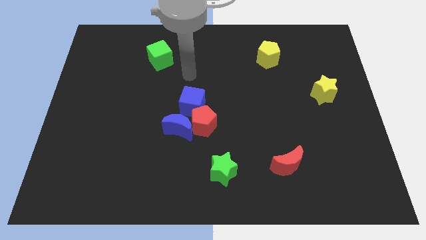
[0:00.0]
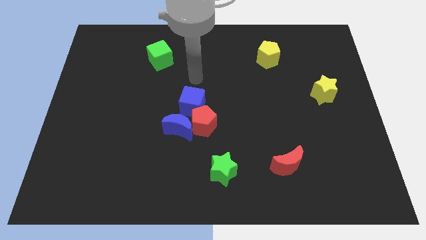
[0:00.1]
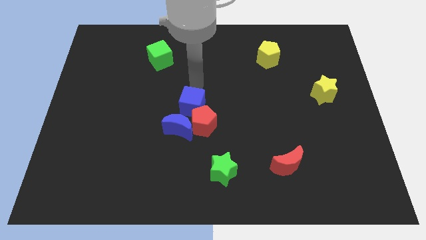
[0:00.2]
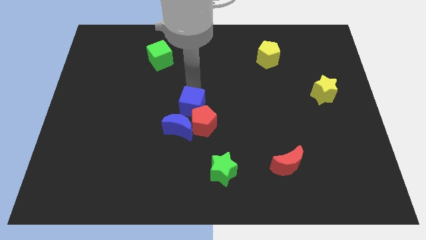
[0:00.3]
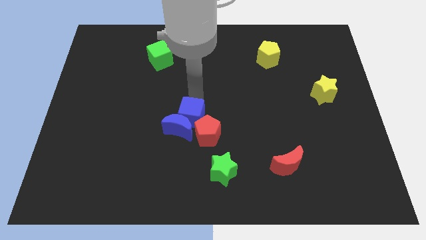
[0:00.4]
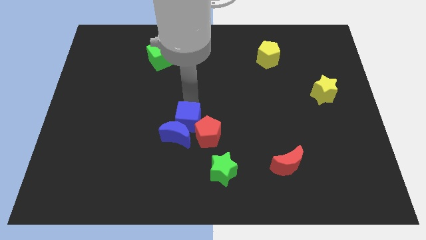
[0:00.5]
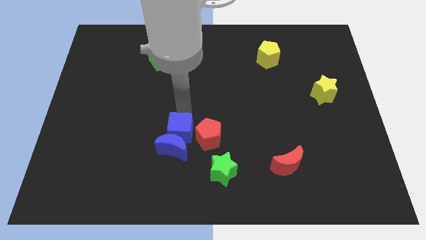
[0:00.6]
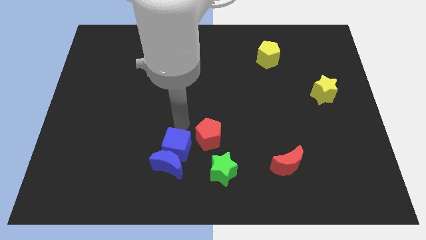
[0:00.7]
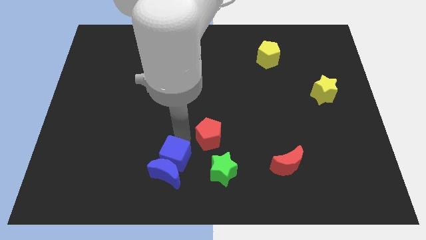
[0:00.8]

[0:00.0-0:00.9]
move the red pentagon away from the blue moon and blue cube

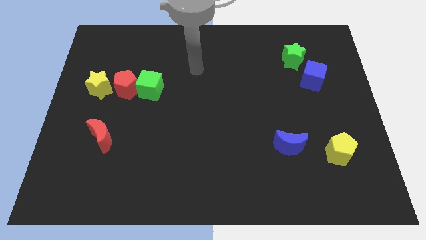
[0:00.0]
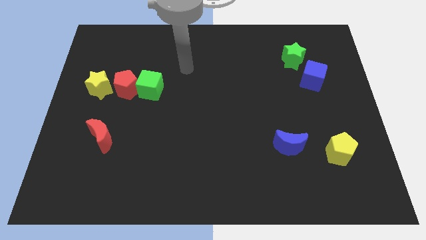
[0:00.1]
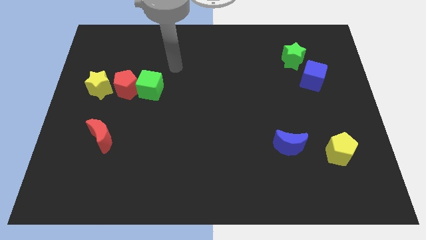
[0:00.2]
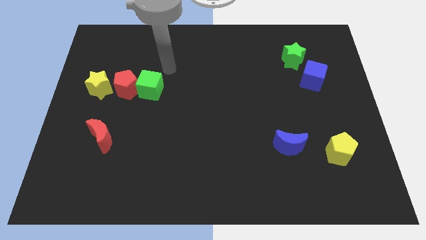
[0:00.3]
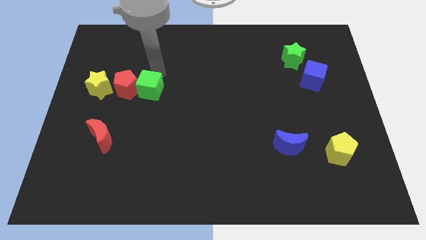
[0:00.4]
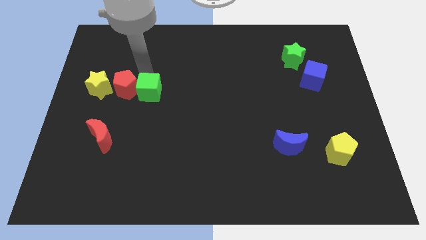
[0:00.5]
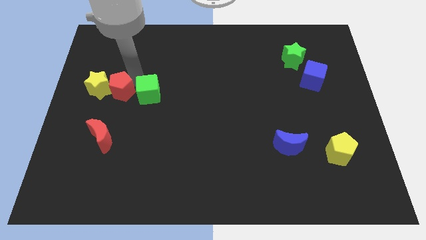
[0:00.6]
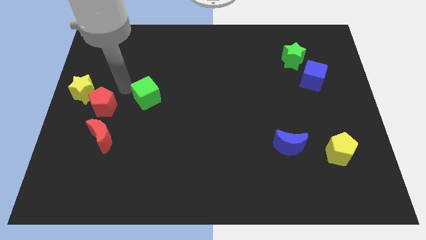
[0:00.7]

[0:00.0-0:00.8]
separate the green cube from the red pentagon

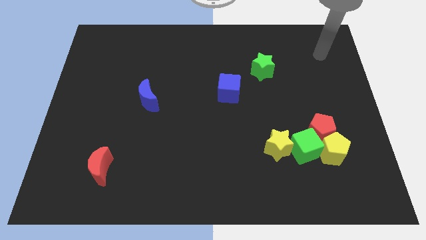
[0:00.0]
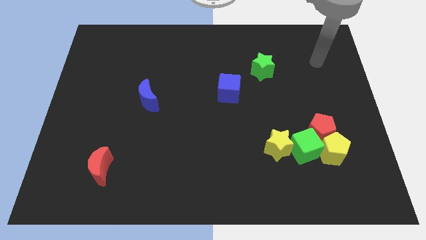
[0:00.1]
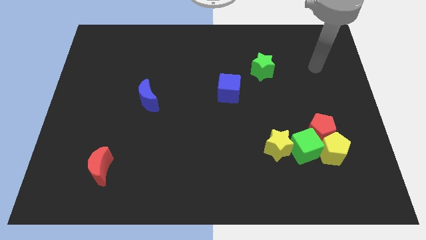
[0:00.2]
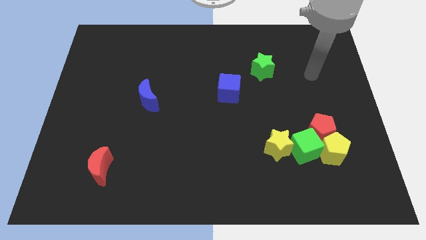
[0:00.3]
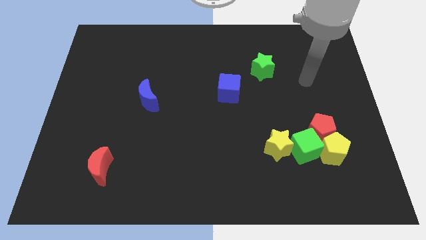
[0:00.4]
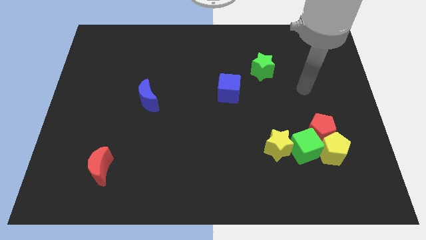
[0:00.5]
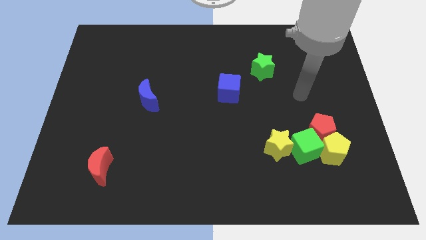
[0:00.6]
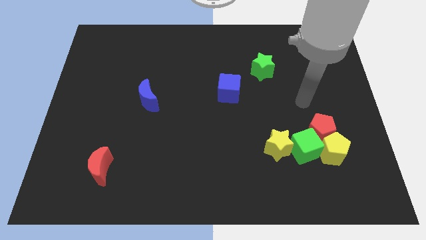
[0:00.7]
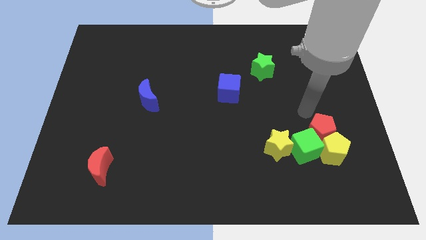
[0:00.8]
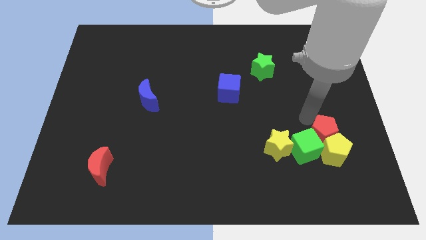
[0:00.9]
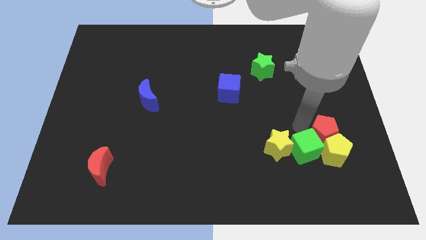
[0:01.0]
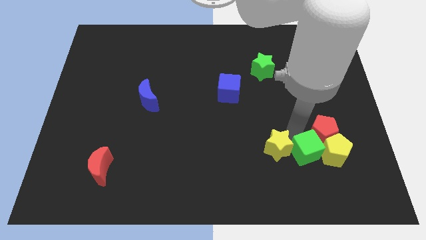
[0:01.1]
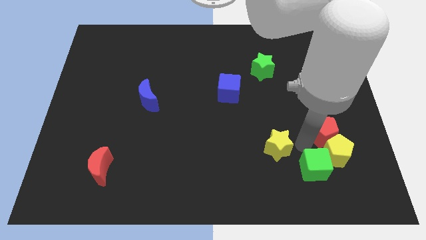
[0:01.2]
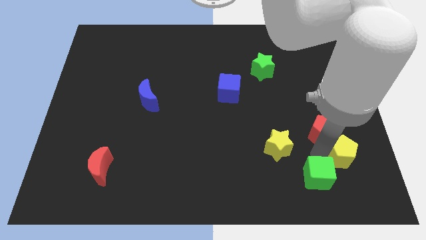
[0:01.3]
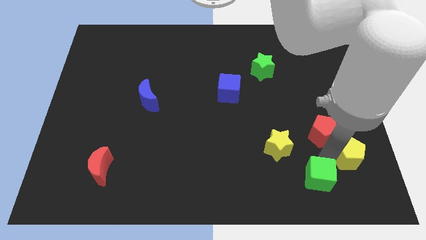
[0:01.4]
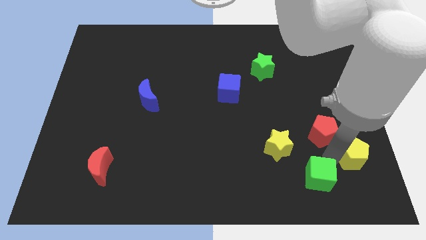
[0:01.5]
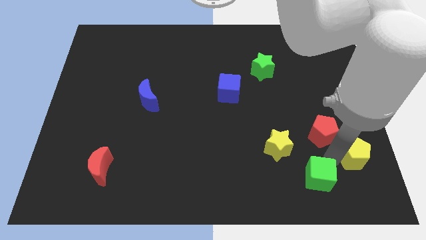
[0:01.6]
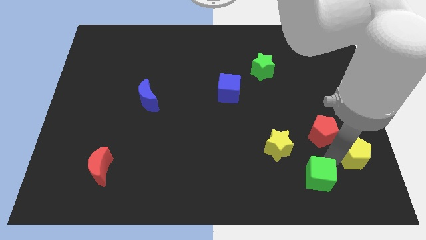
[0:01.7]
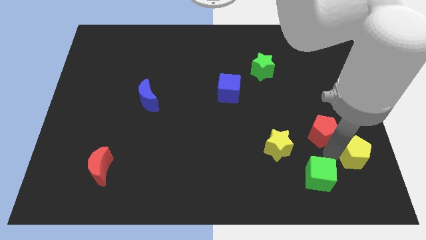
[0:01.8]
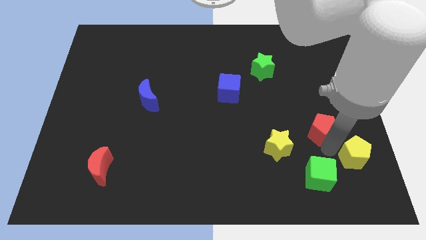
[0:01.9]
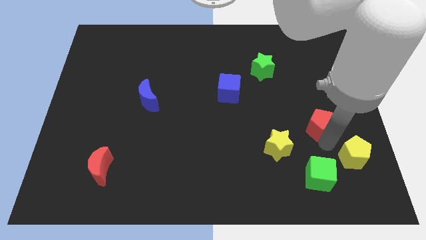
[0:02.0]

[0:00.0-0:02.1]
pull the red pentagon apart from the yellow pentagon and green cube

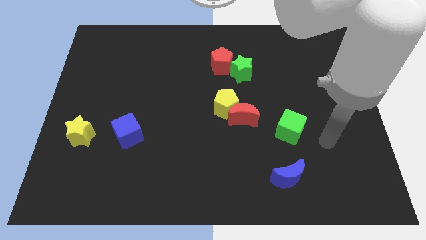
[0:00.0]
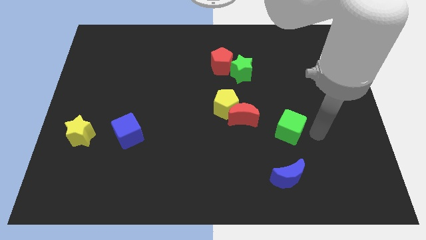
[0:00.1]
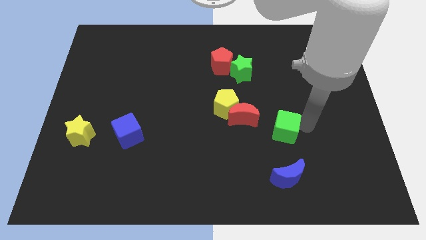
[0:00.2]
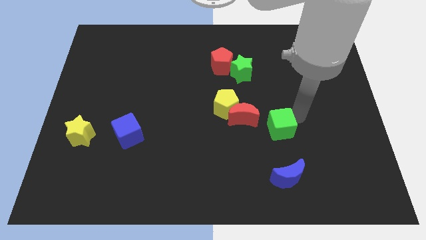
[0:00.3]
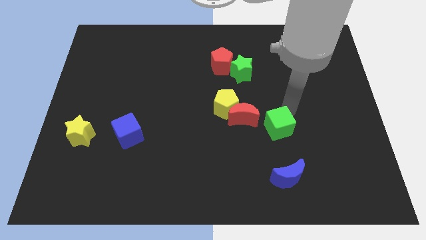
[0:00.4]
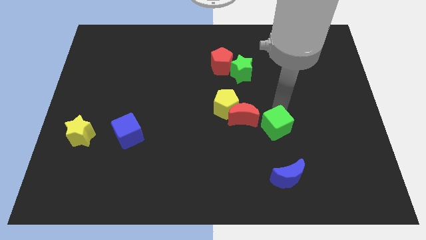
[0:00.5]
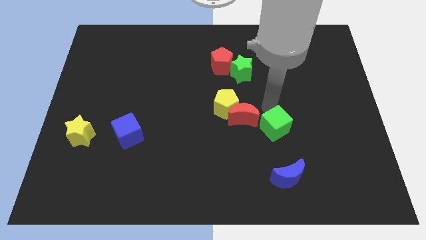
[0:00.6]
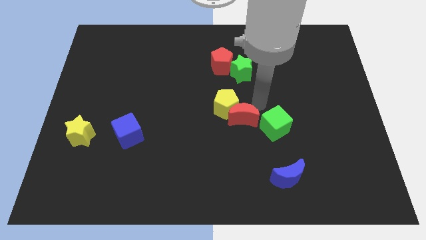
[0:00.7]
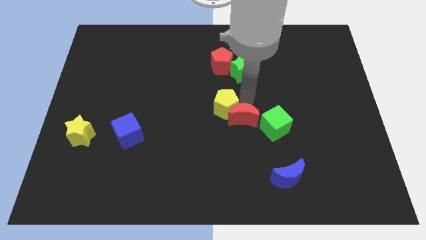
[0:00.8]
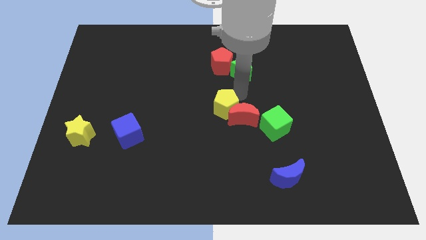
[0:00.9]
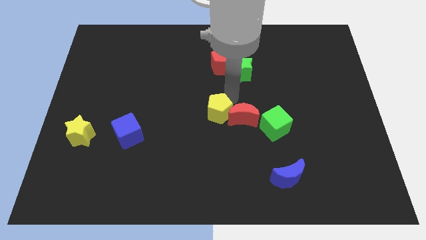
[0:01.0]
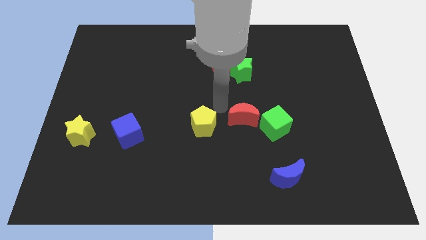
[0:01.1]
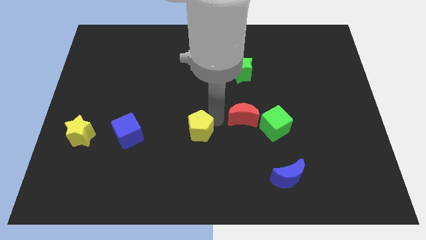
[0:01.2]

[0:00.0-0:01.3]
pull the red moon apart from the yellow pentagon

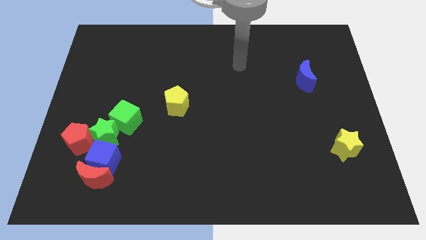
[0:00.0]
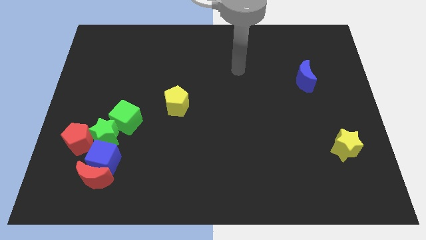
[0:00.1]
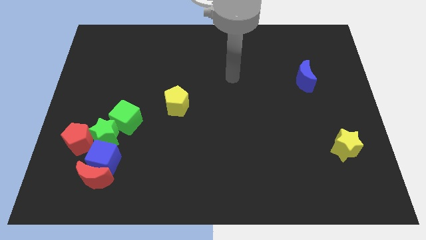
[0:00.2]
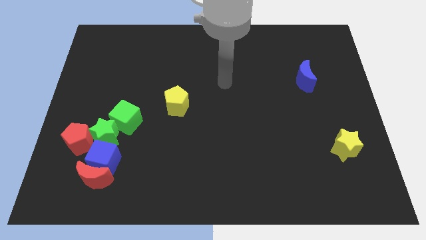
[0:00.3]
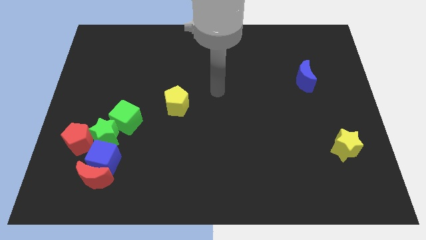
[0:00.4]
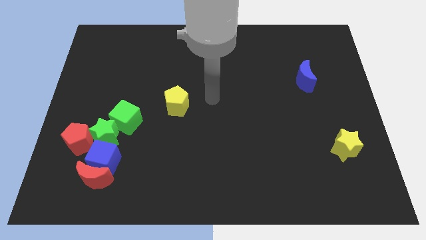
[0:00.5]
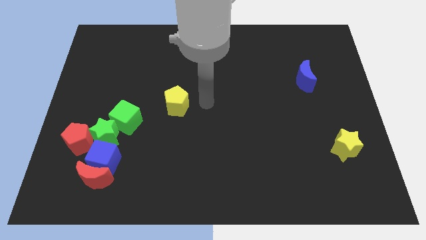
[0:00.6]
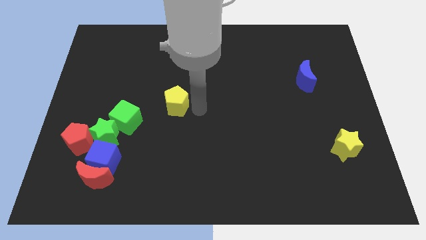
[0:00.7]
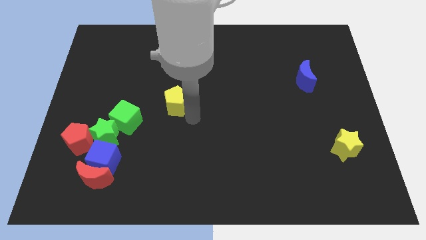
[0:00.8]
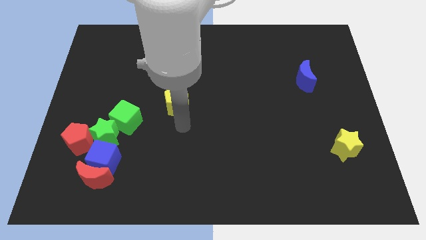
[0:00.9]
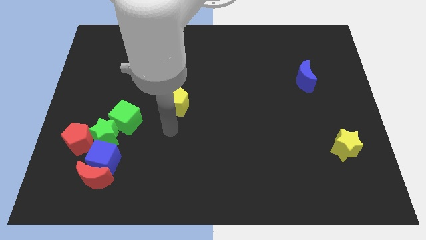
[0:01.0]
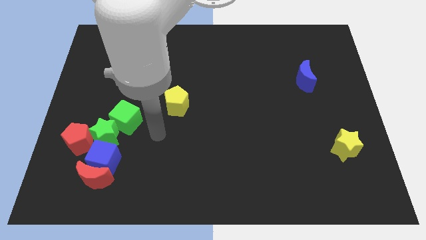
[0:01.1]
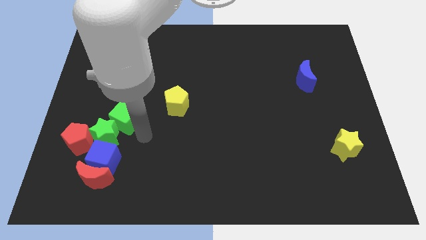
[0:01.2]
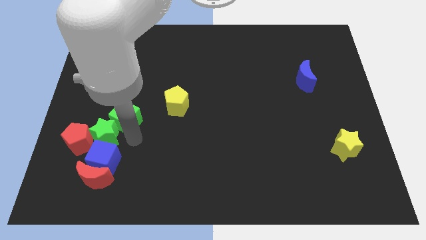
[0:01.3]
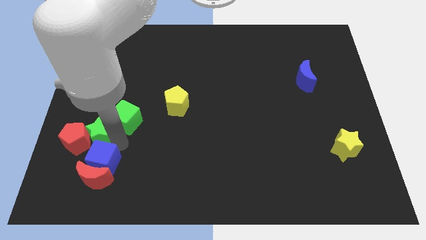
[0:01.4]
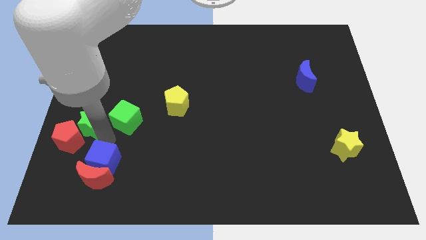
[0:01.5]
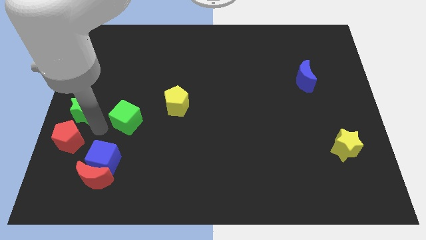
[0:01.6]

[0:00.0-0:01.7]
pull the green cube apart from the green star

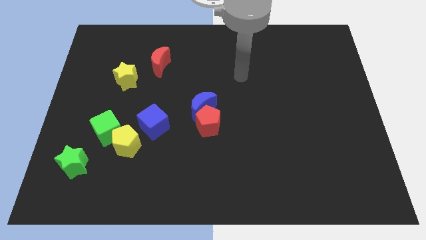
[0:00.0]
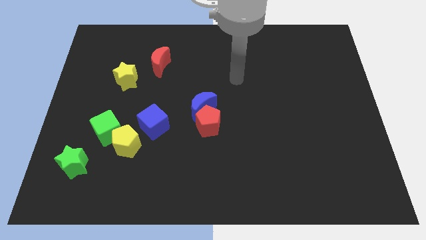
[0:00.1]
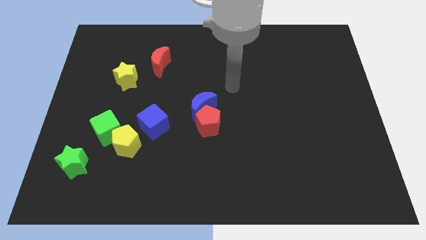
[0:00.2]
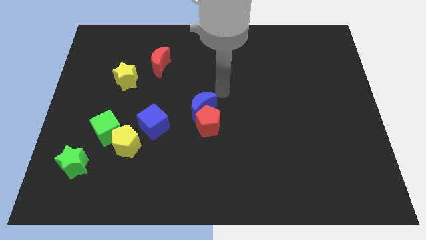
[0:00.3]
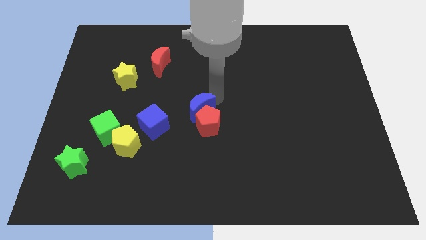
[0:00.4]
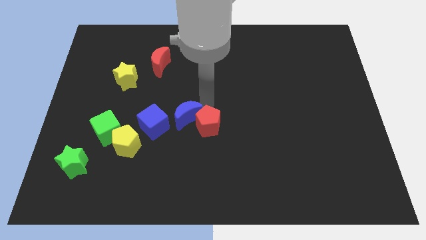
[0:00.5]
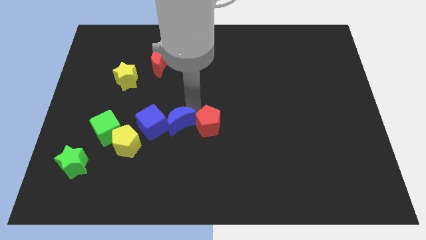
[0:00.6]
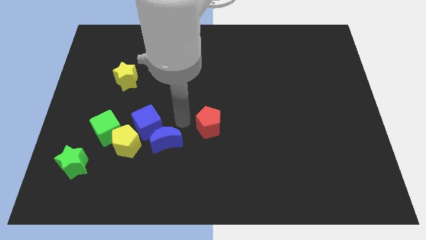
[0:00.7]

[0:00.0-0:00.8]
pull the red pentagon apart from the blue moon

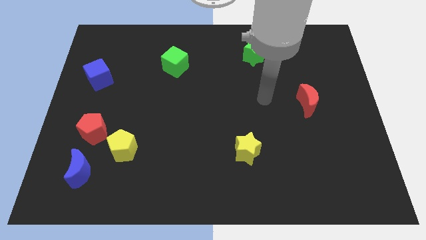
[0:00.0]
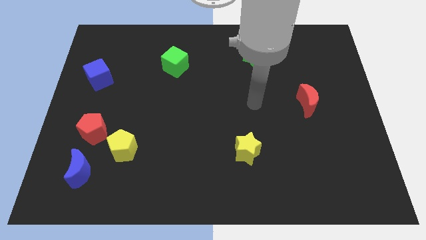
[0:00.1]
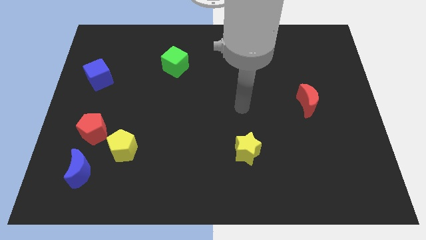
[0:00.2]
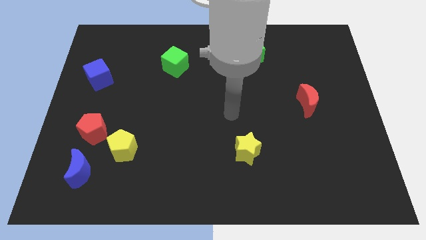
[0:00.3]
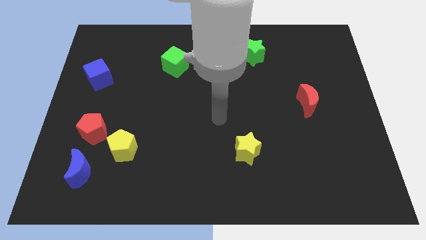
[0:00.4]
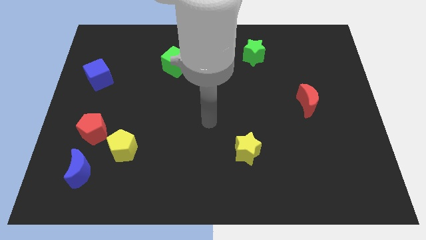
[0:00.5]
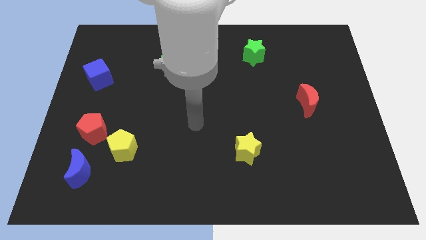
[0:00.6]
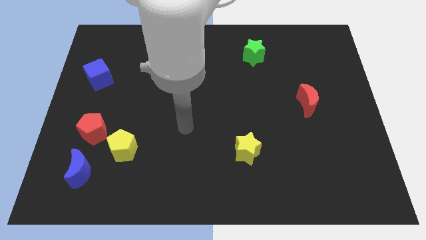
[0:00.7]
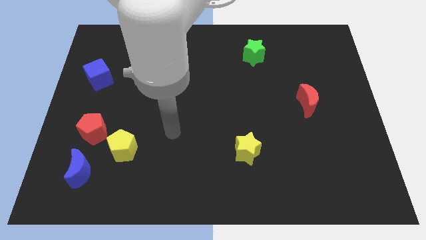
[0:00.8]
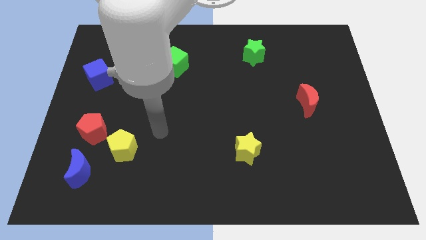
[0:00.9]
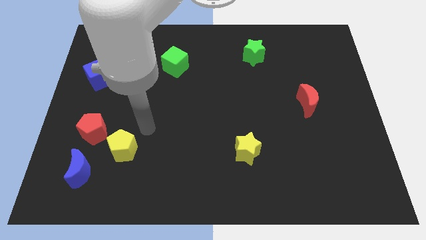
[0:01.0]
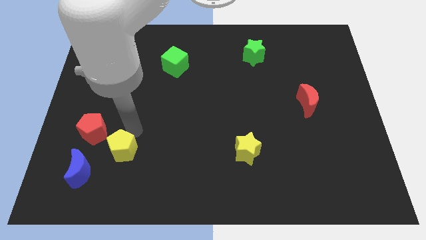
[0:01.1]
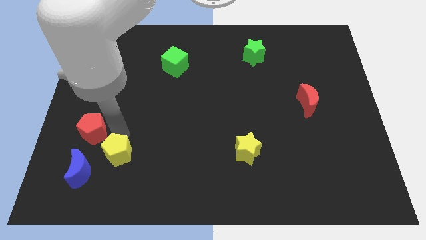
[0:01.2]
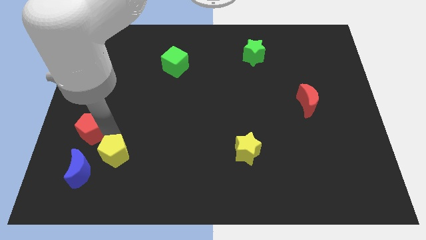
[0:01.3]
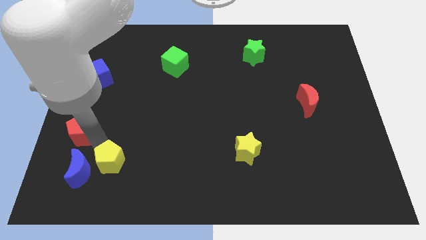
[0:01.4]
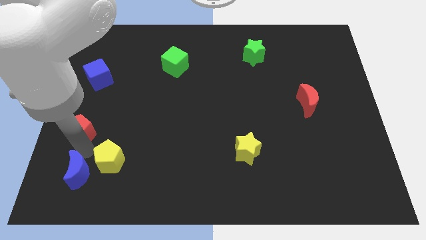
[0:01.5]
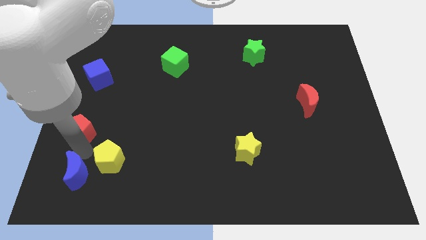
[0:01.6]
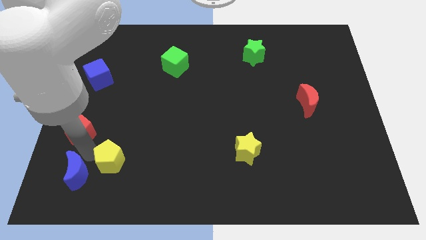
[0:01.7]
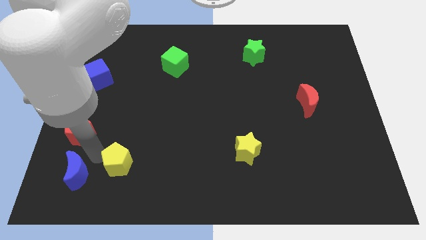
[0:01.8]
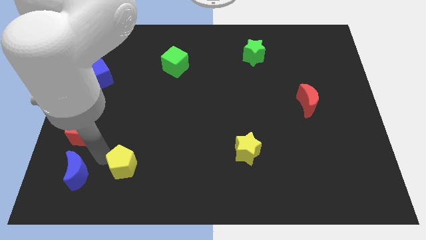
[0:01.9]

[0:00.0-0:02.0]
move the yellow pentagon away from the red pentagon and blue moon
